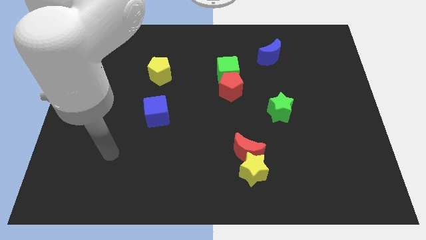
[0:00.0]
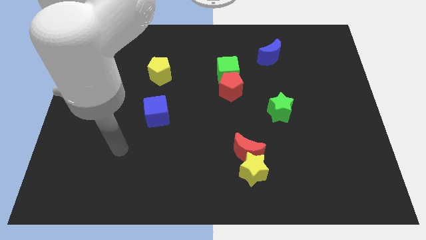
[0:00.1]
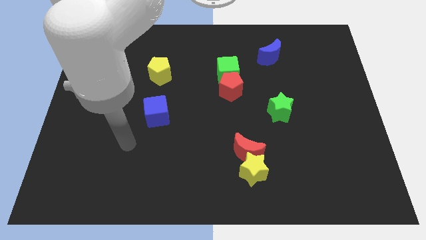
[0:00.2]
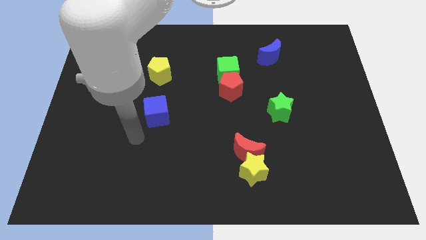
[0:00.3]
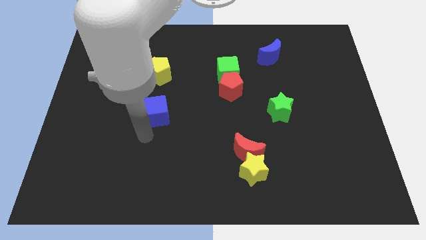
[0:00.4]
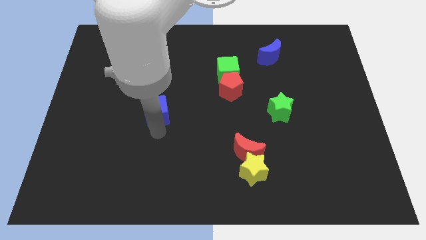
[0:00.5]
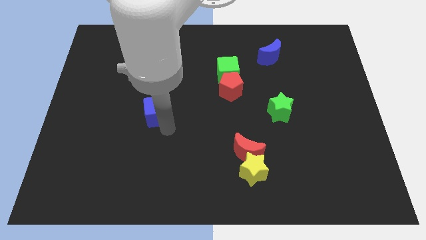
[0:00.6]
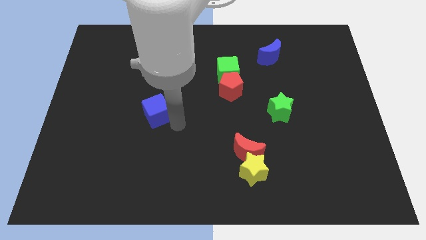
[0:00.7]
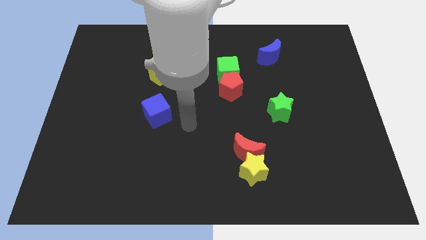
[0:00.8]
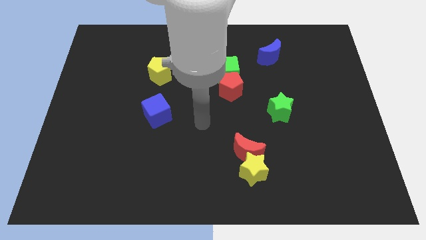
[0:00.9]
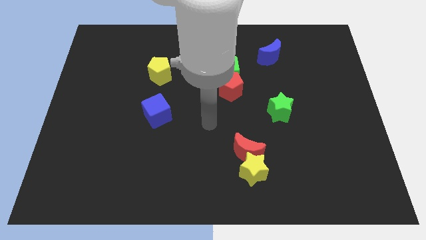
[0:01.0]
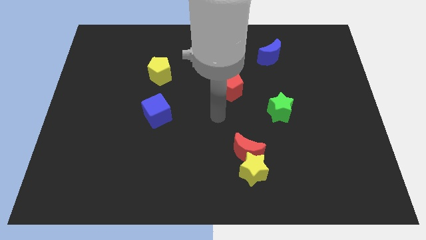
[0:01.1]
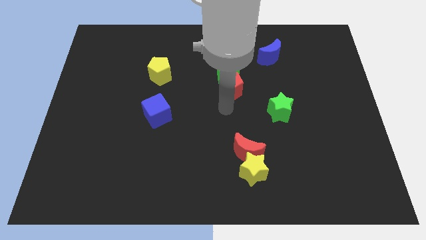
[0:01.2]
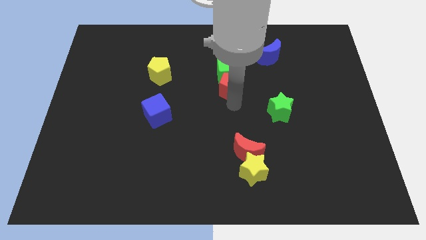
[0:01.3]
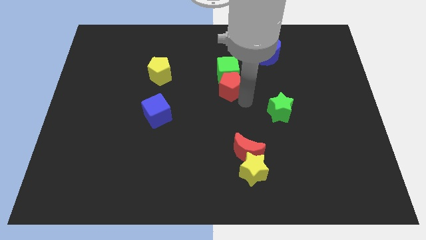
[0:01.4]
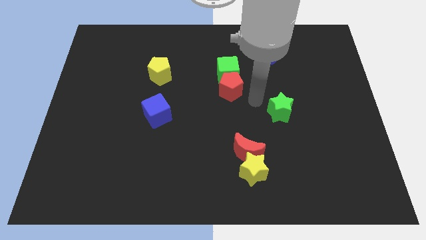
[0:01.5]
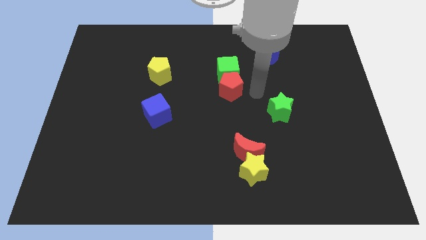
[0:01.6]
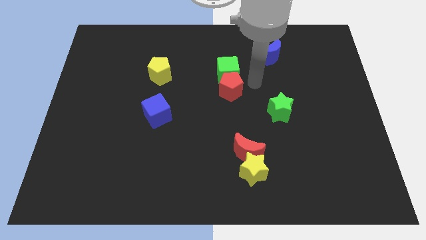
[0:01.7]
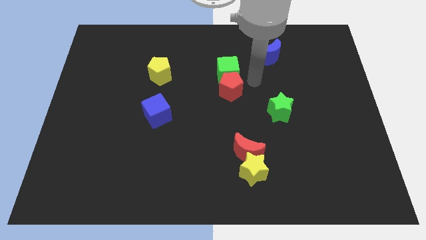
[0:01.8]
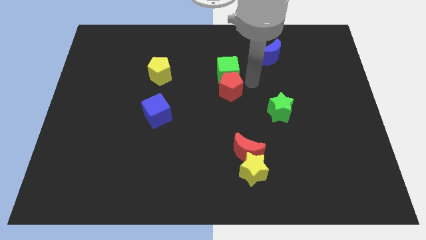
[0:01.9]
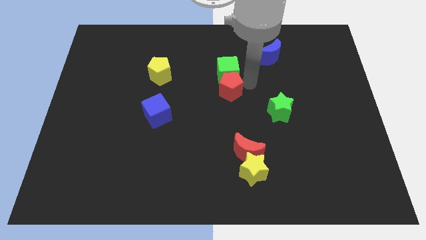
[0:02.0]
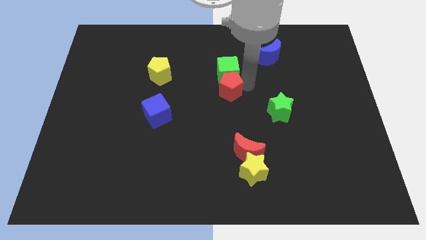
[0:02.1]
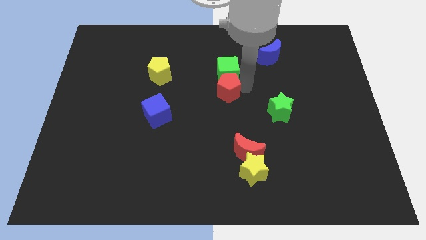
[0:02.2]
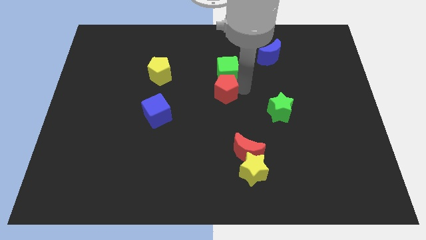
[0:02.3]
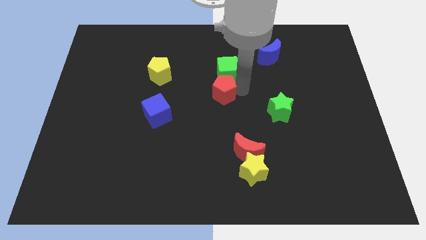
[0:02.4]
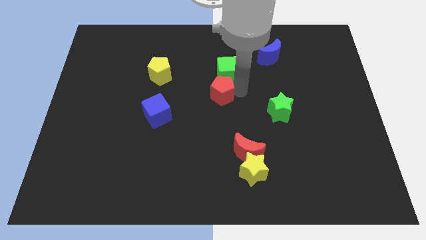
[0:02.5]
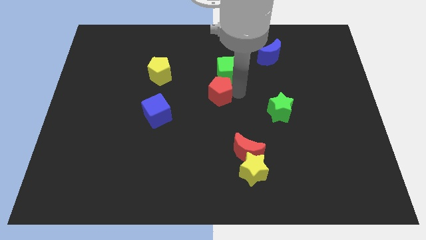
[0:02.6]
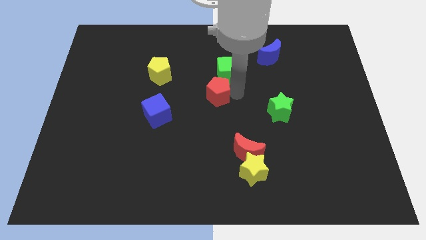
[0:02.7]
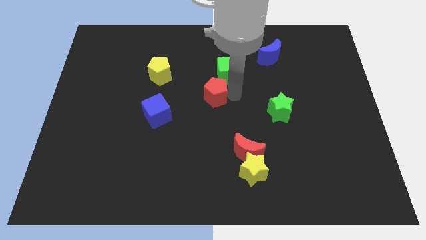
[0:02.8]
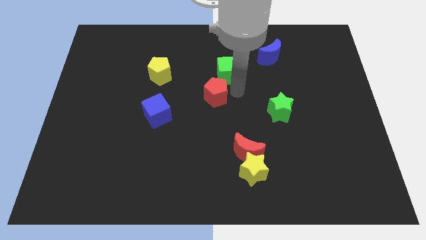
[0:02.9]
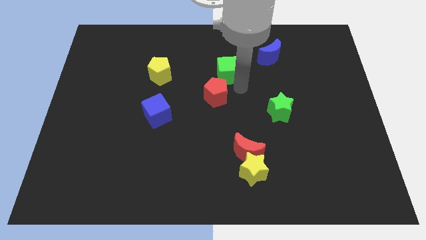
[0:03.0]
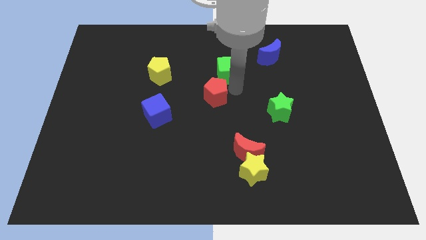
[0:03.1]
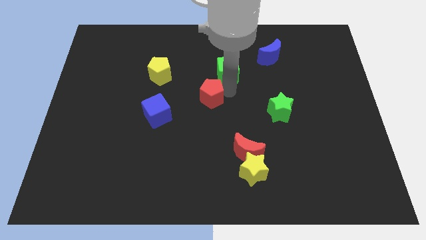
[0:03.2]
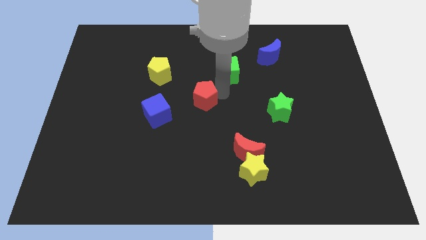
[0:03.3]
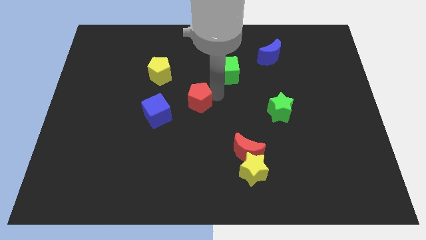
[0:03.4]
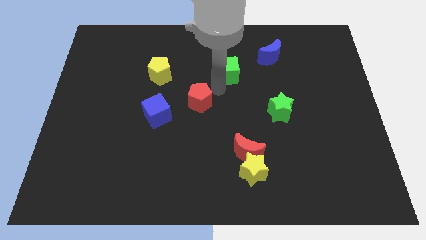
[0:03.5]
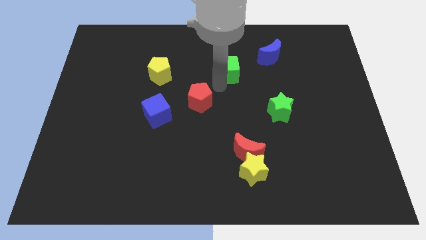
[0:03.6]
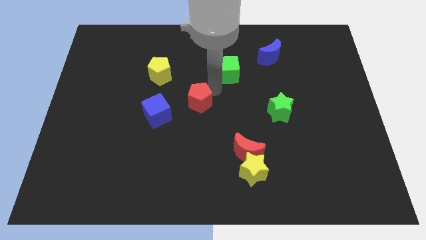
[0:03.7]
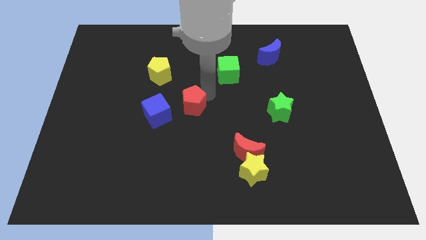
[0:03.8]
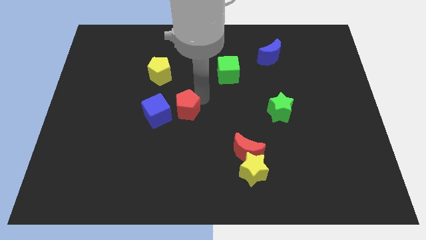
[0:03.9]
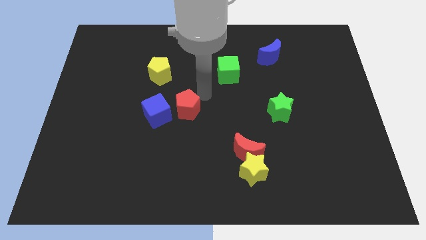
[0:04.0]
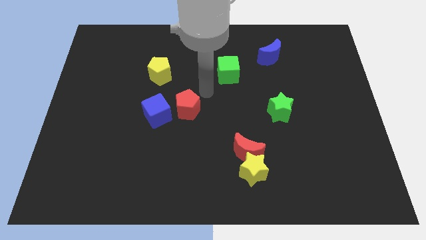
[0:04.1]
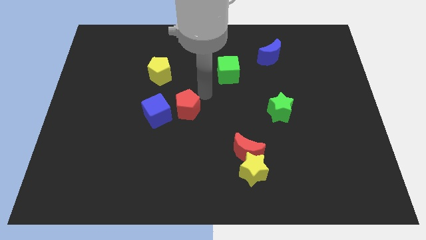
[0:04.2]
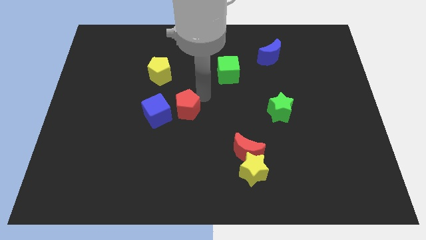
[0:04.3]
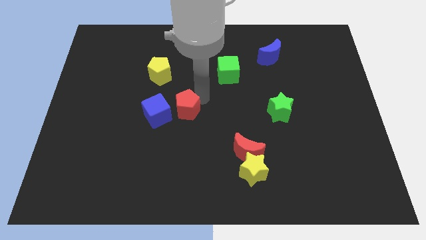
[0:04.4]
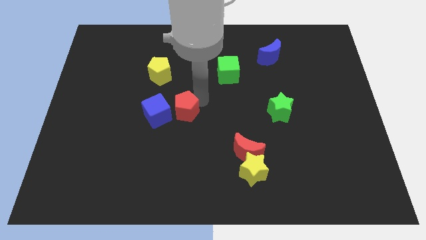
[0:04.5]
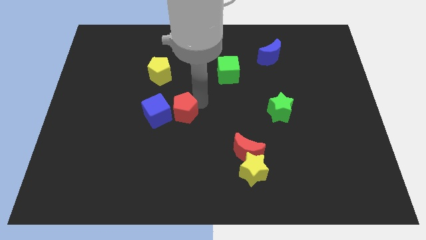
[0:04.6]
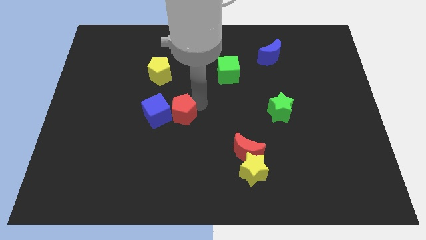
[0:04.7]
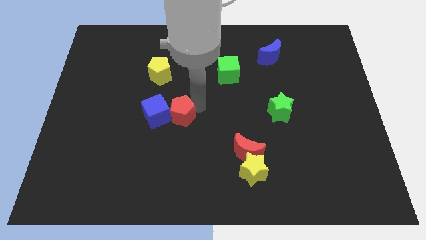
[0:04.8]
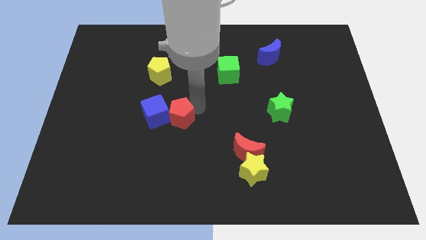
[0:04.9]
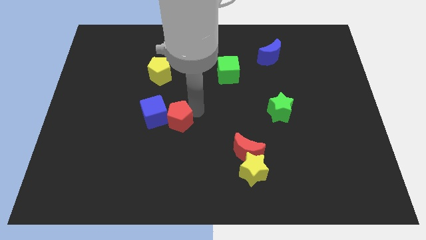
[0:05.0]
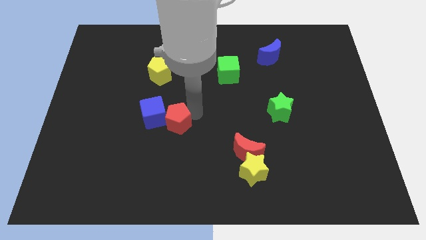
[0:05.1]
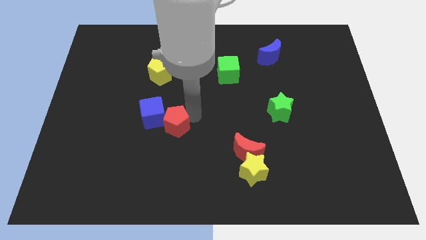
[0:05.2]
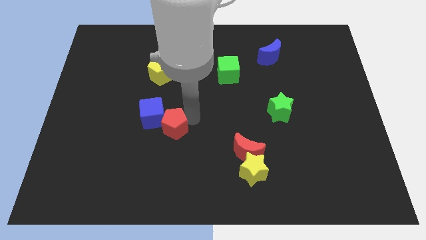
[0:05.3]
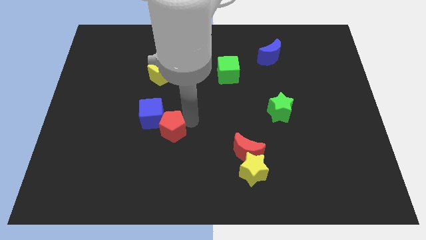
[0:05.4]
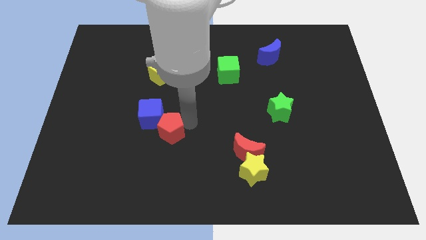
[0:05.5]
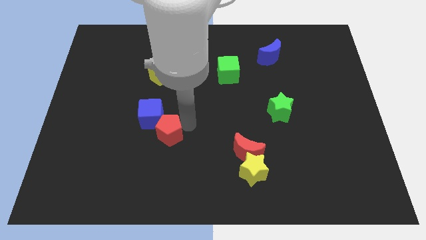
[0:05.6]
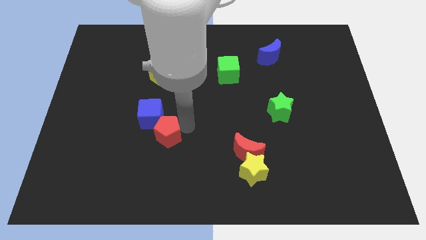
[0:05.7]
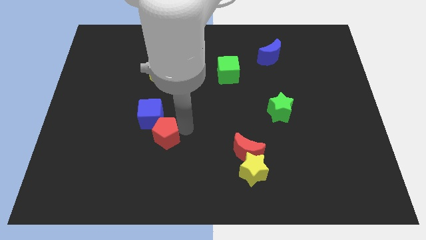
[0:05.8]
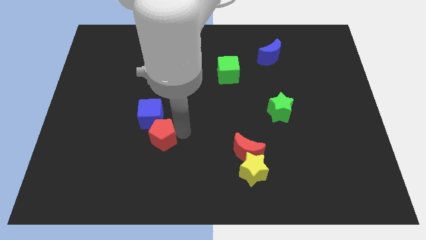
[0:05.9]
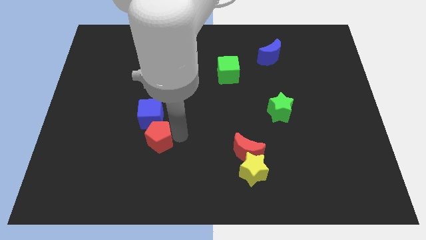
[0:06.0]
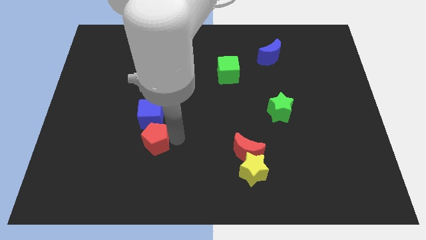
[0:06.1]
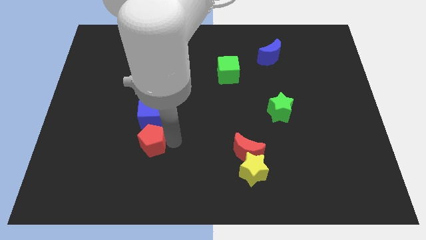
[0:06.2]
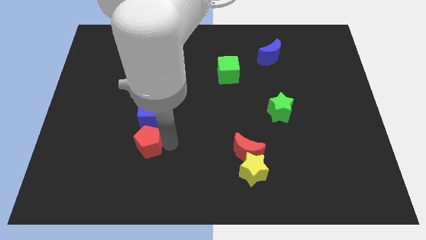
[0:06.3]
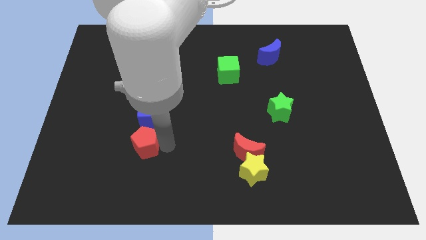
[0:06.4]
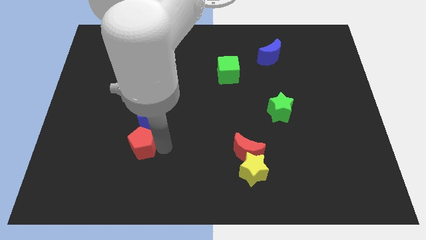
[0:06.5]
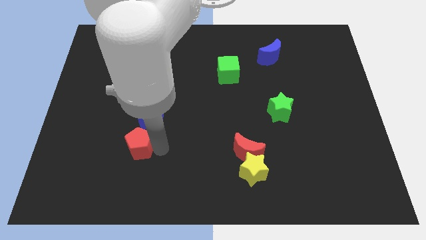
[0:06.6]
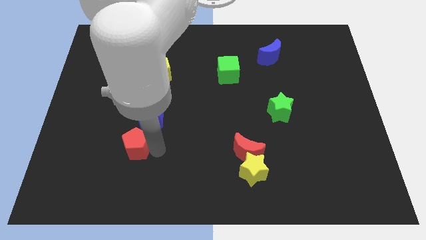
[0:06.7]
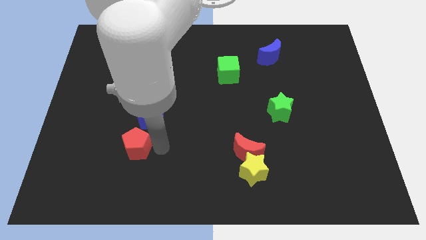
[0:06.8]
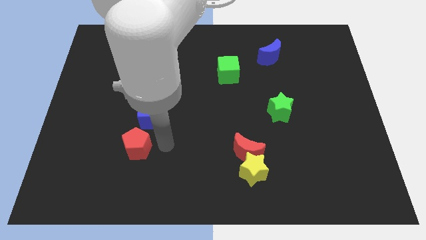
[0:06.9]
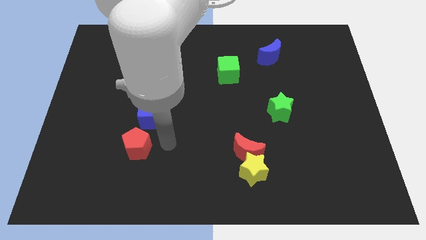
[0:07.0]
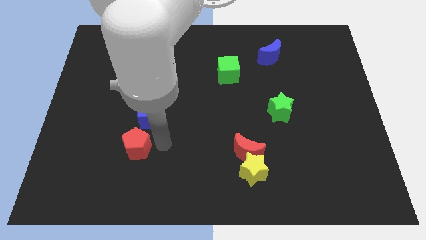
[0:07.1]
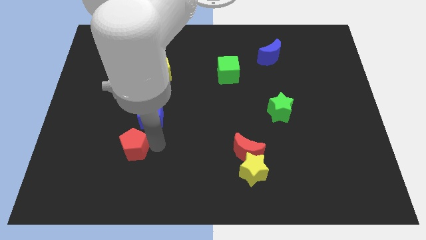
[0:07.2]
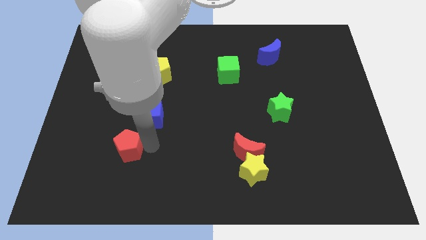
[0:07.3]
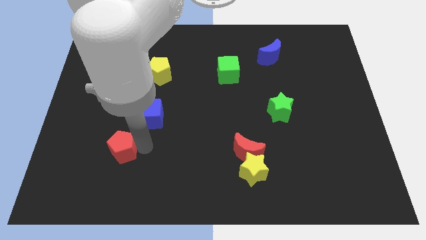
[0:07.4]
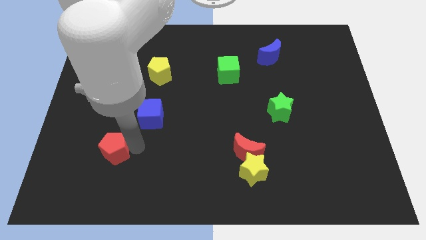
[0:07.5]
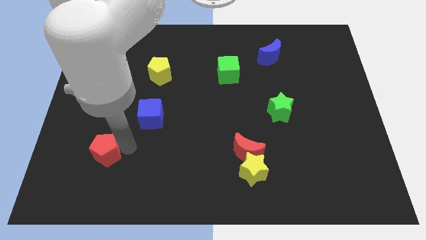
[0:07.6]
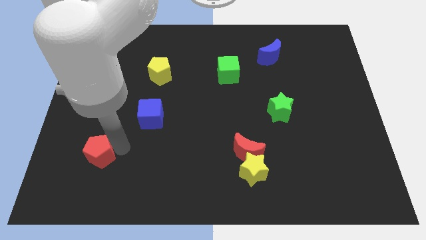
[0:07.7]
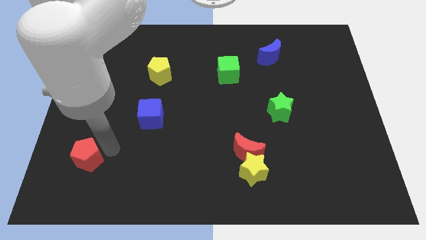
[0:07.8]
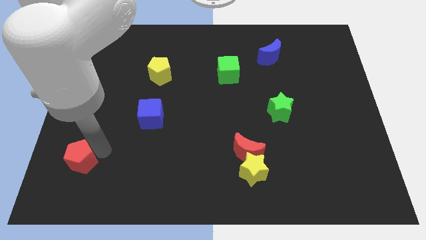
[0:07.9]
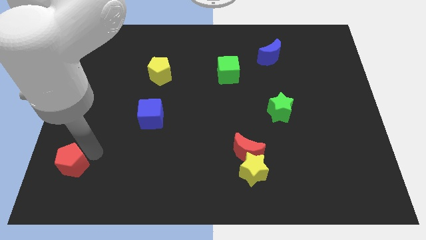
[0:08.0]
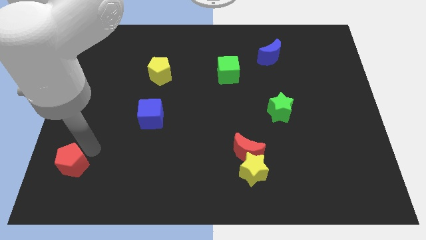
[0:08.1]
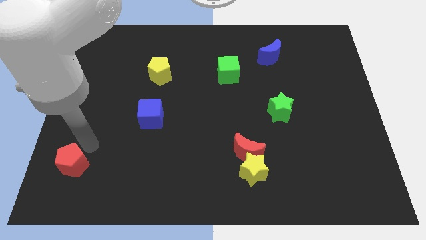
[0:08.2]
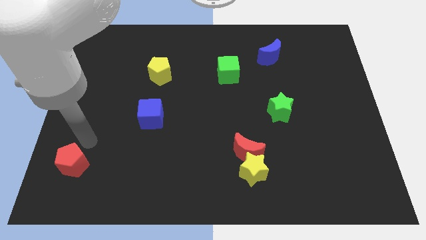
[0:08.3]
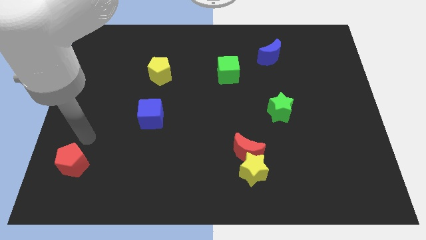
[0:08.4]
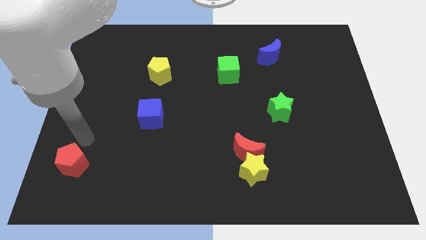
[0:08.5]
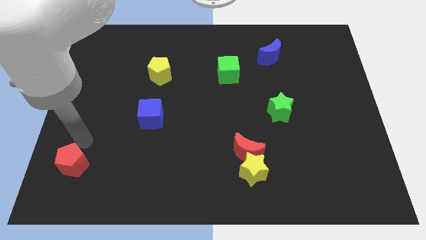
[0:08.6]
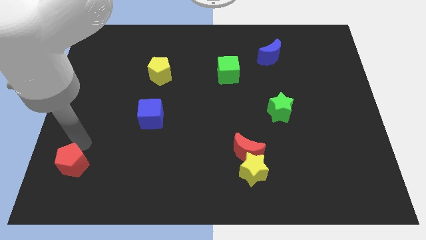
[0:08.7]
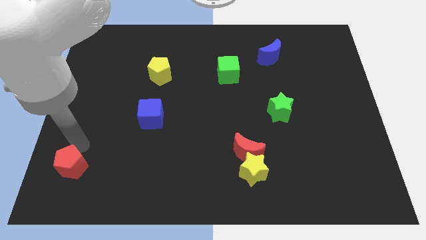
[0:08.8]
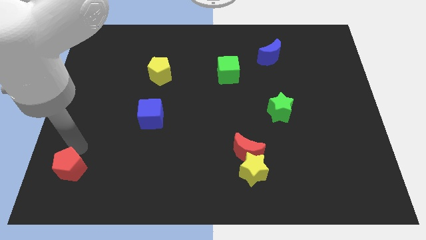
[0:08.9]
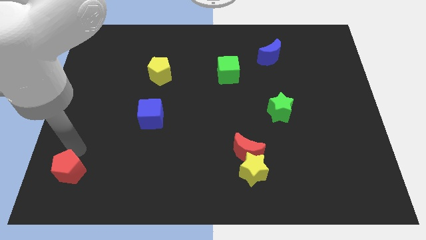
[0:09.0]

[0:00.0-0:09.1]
move the red pentagon to the bottom left
